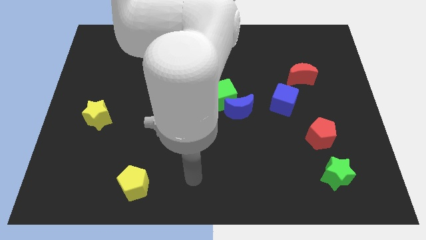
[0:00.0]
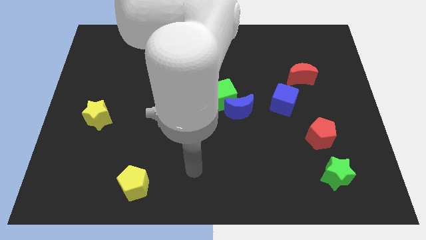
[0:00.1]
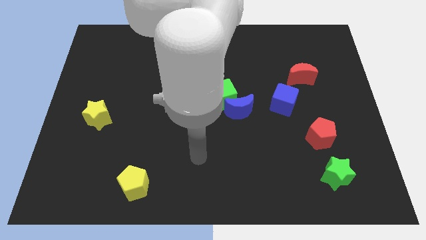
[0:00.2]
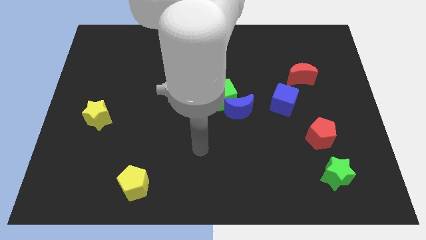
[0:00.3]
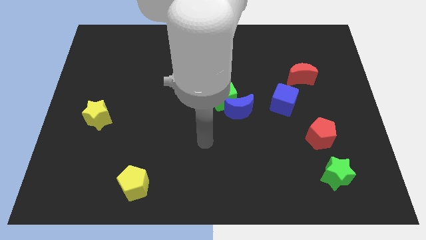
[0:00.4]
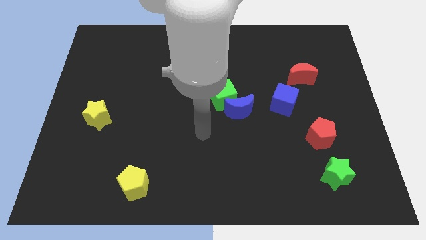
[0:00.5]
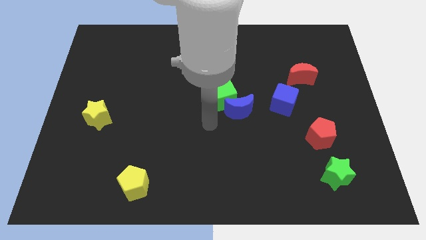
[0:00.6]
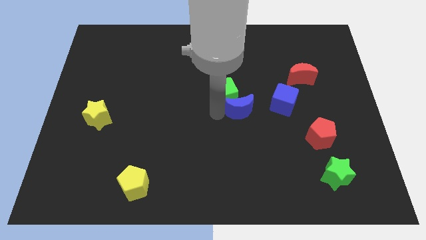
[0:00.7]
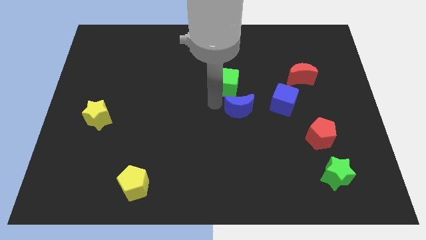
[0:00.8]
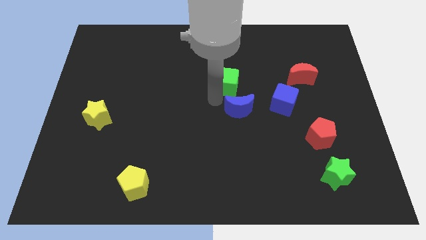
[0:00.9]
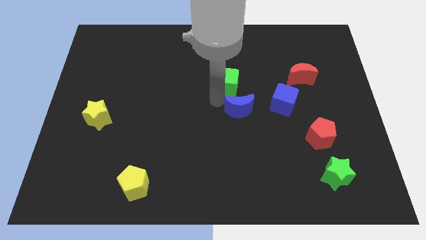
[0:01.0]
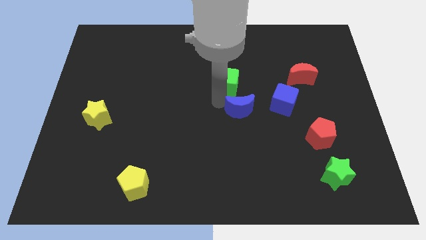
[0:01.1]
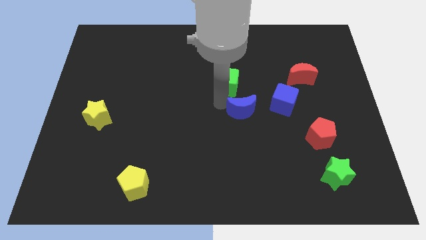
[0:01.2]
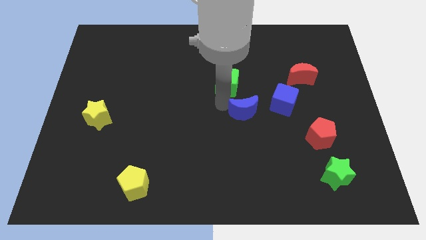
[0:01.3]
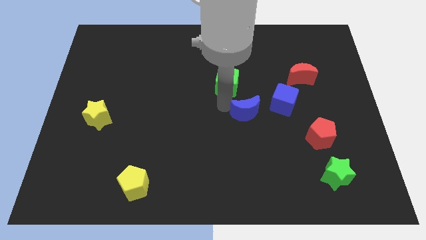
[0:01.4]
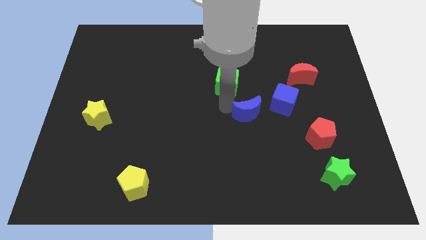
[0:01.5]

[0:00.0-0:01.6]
move the blue moon away from the green cube

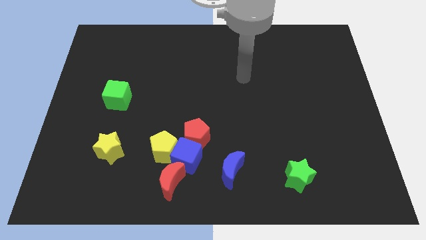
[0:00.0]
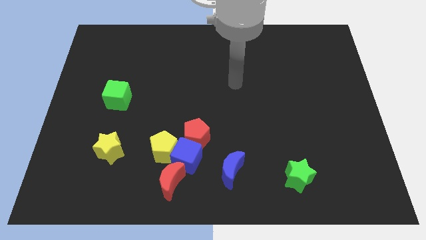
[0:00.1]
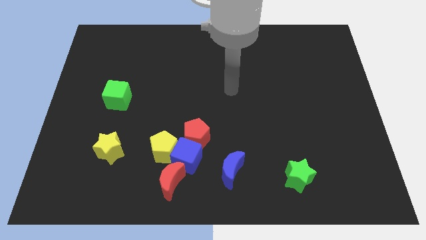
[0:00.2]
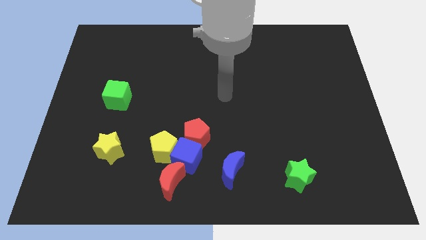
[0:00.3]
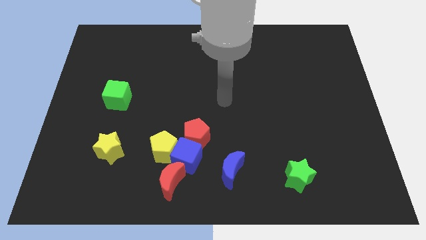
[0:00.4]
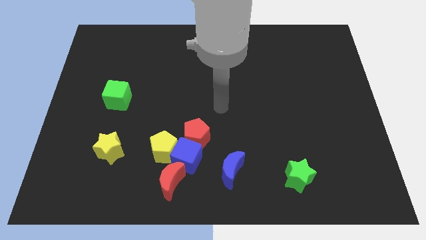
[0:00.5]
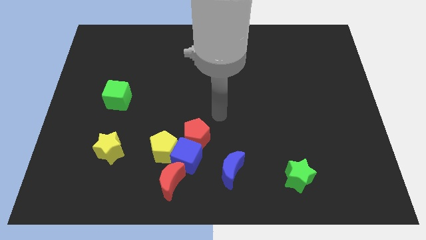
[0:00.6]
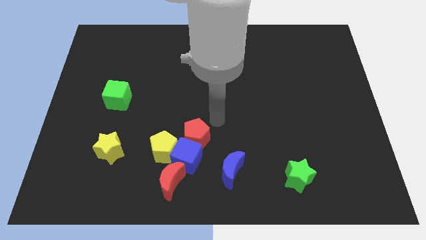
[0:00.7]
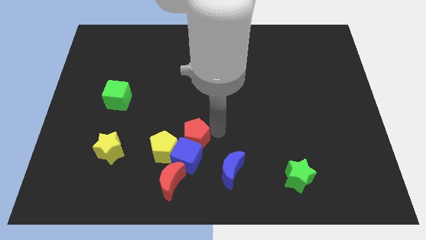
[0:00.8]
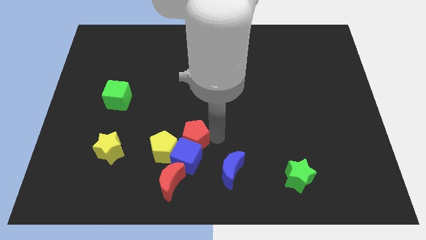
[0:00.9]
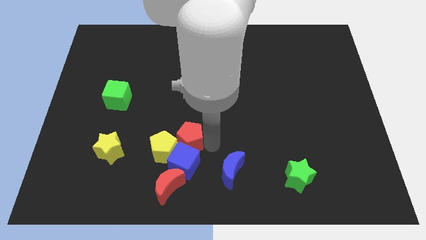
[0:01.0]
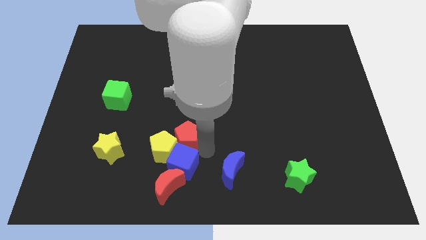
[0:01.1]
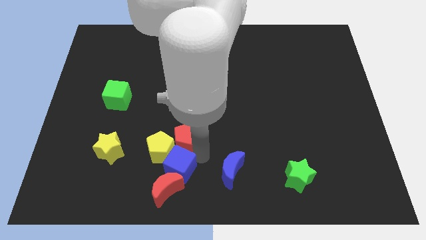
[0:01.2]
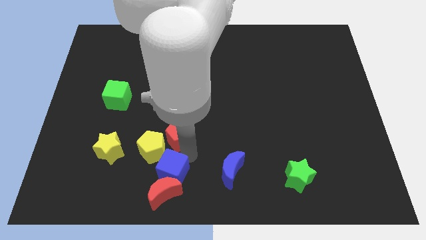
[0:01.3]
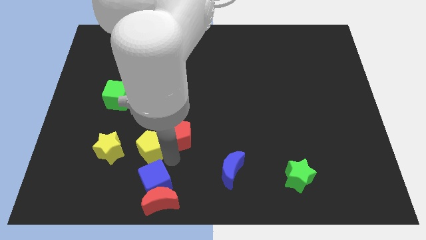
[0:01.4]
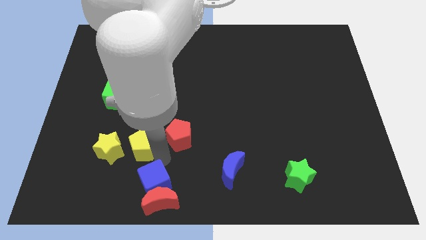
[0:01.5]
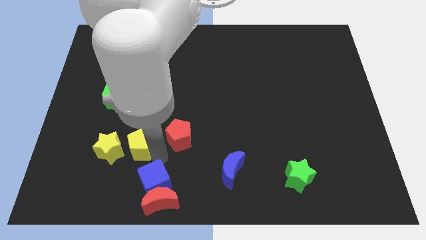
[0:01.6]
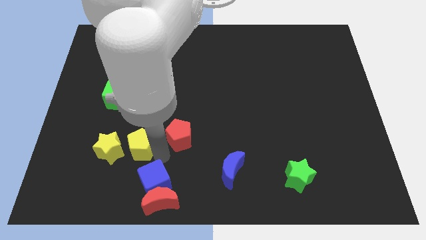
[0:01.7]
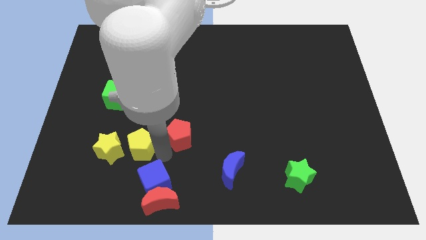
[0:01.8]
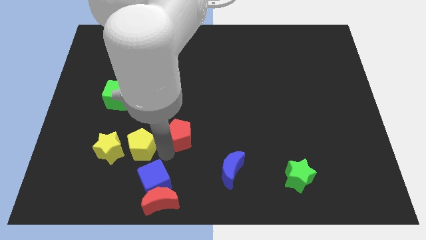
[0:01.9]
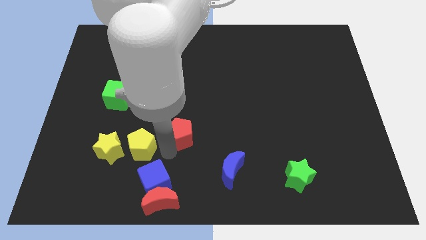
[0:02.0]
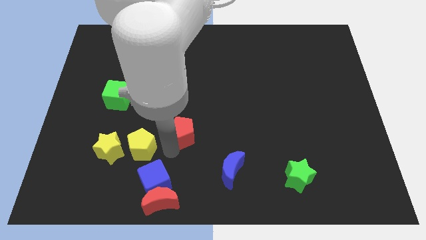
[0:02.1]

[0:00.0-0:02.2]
move the red pentagon away from the blue cube and yellow pentagon

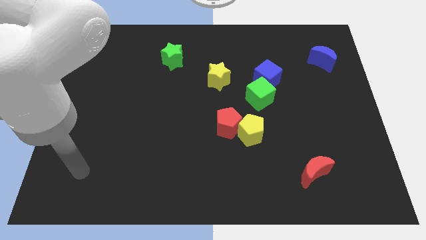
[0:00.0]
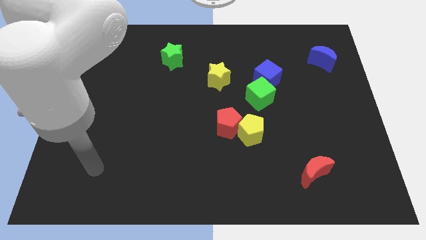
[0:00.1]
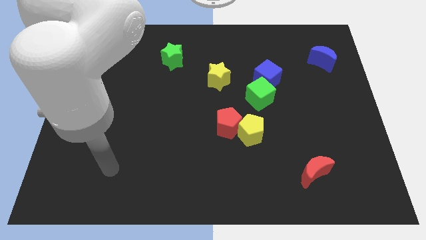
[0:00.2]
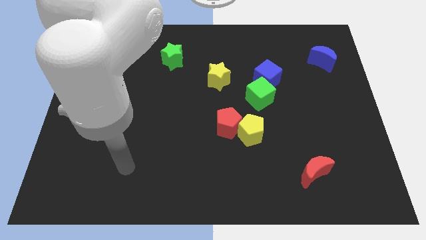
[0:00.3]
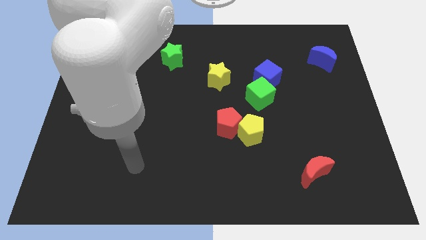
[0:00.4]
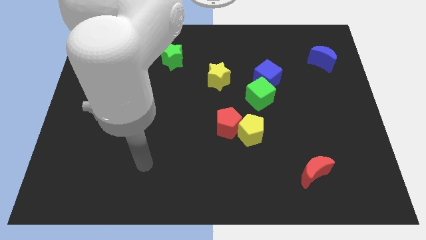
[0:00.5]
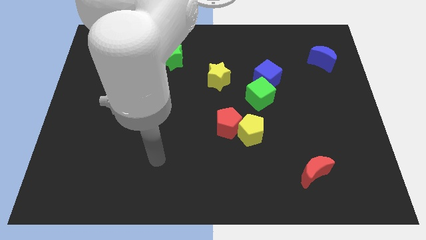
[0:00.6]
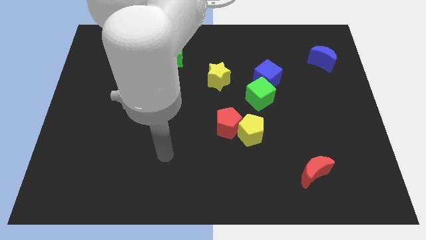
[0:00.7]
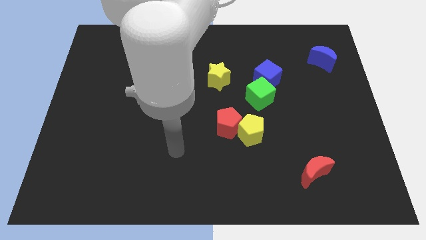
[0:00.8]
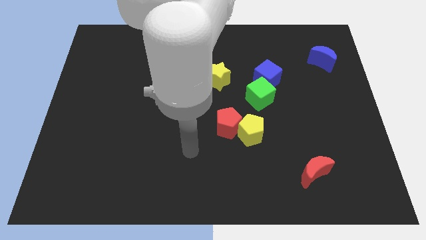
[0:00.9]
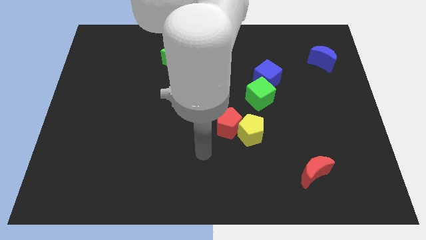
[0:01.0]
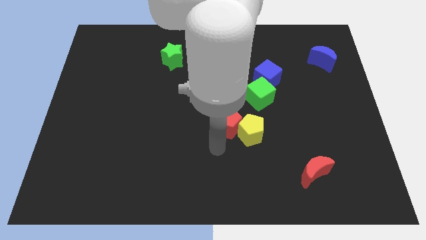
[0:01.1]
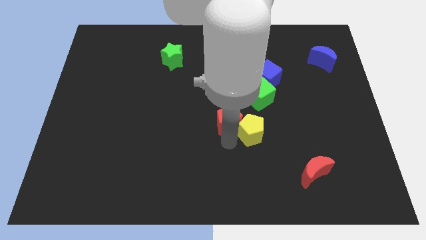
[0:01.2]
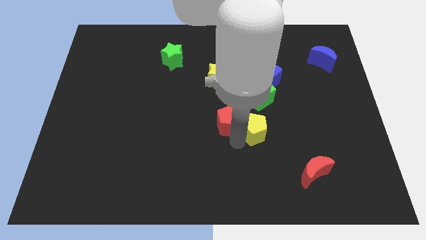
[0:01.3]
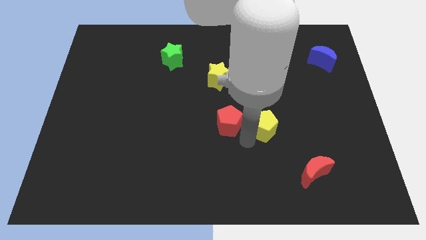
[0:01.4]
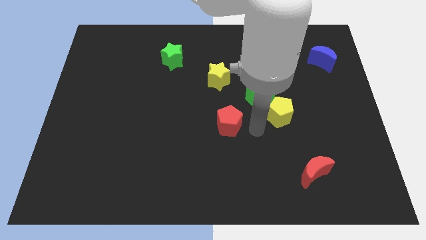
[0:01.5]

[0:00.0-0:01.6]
pull the red pentagon apart from the yellow pentagon

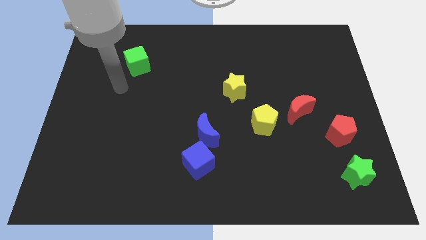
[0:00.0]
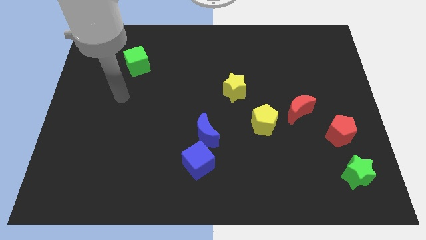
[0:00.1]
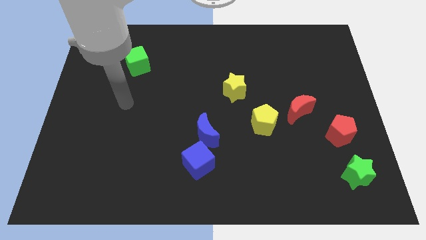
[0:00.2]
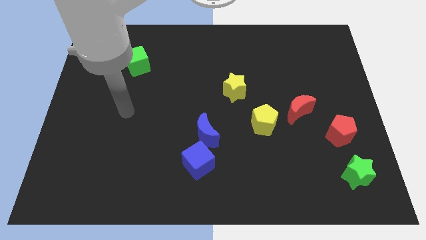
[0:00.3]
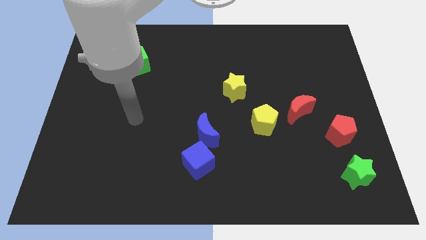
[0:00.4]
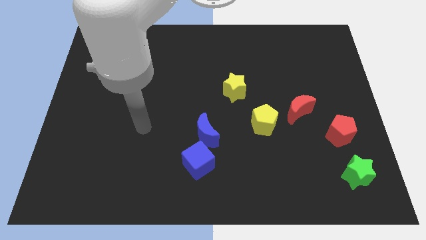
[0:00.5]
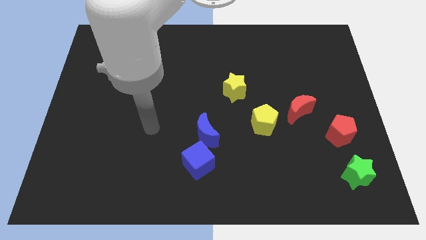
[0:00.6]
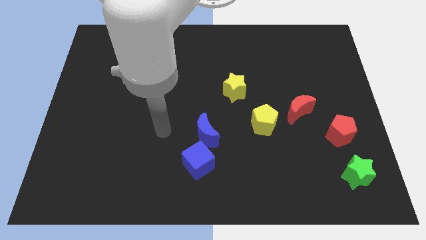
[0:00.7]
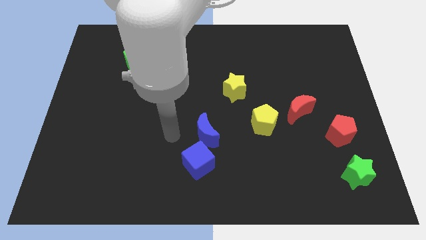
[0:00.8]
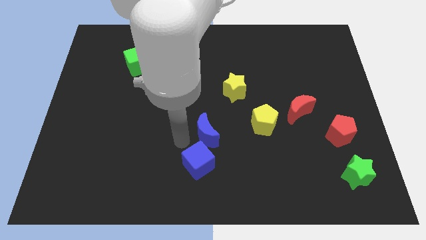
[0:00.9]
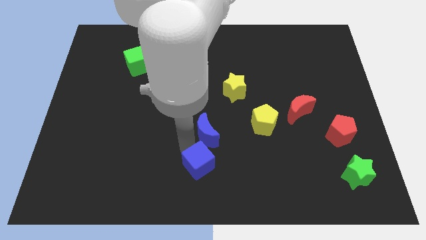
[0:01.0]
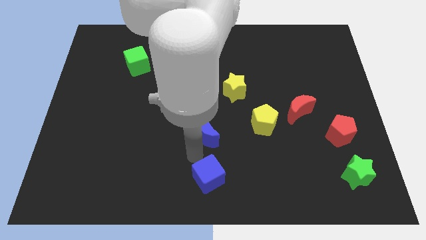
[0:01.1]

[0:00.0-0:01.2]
pull the blue moon apart from the blue cube

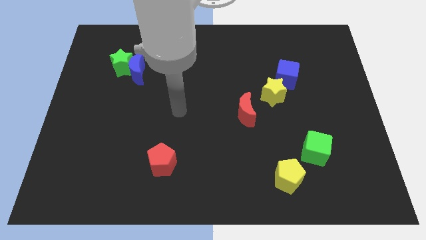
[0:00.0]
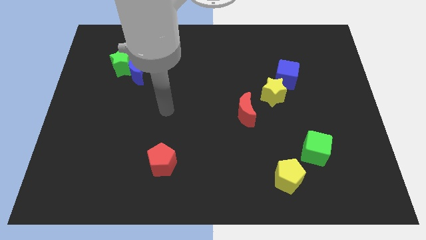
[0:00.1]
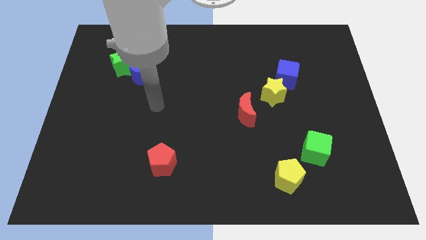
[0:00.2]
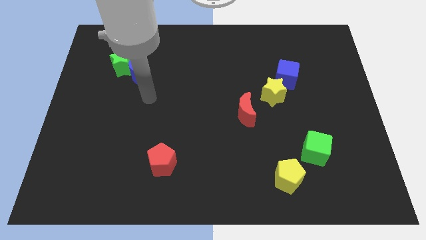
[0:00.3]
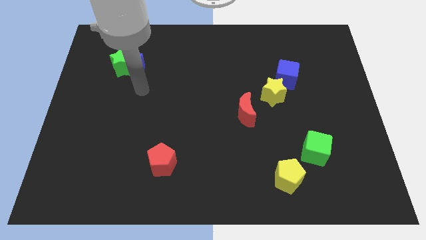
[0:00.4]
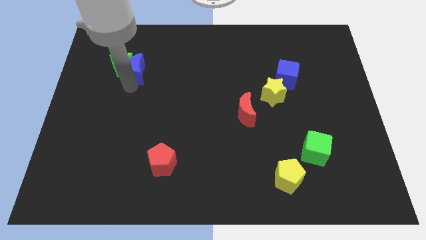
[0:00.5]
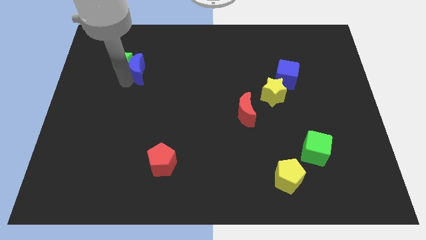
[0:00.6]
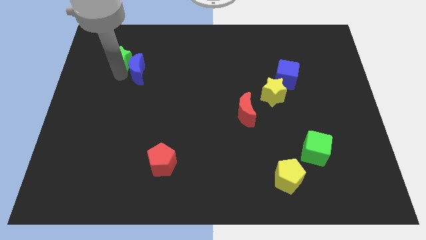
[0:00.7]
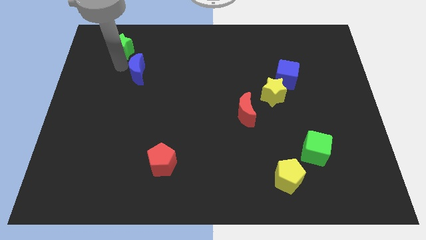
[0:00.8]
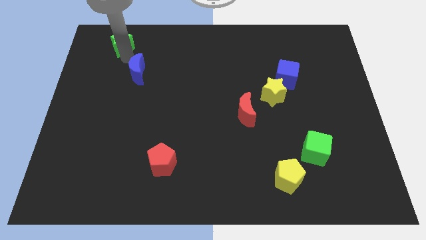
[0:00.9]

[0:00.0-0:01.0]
separate the blue moon from the green star

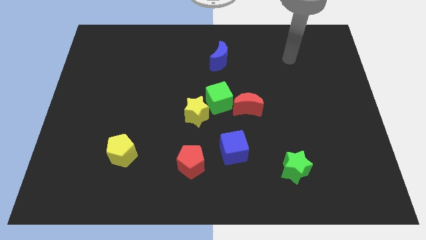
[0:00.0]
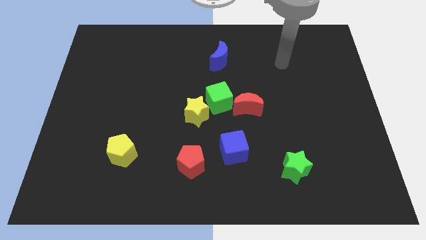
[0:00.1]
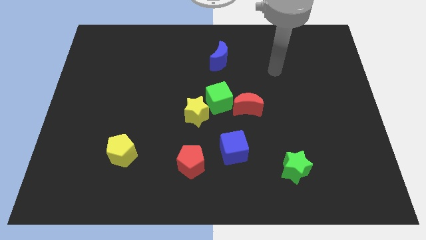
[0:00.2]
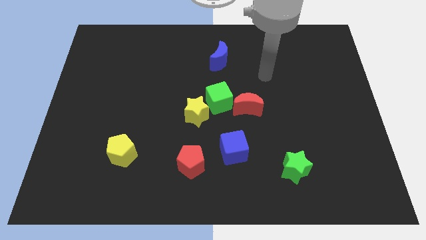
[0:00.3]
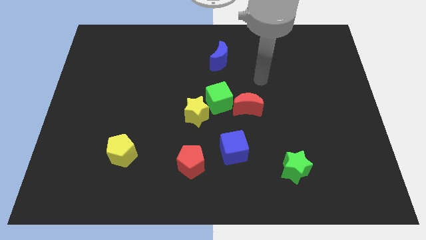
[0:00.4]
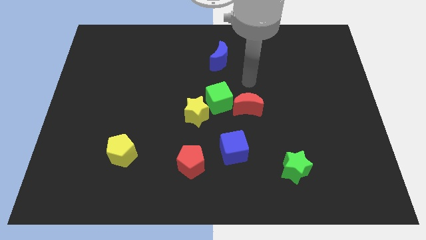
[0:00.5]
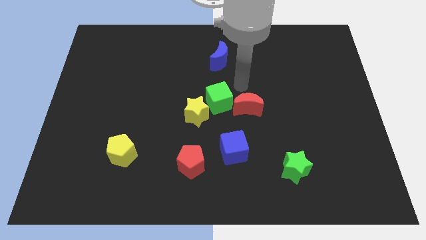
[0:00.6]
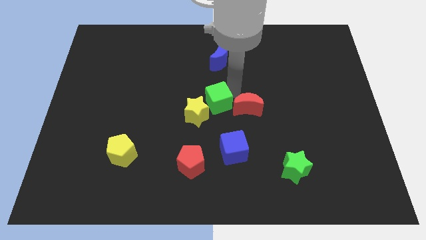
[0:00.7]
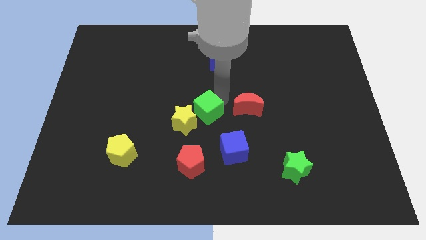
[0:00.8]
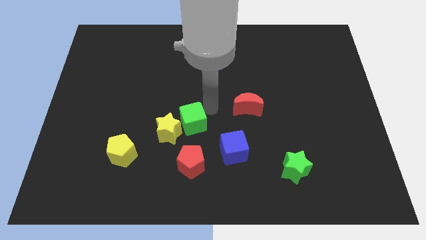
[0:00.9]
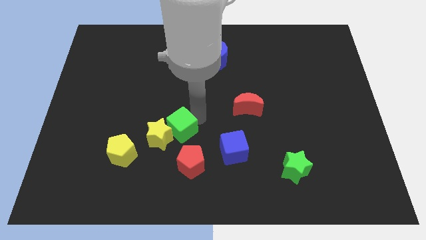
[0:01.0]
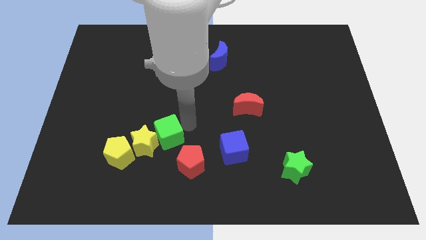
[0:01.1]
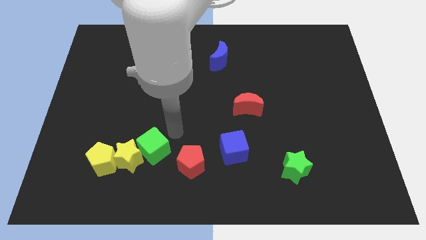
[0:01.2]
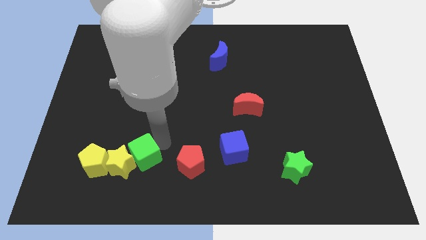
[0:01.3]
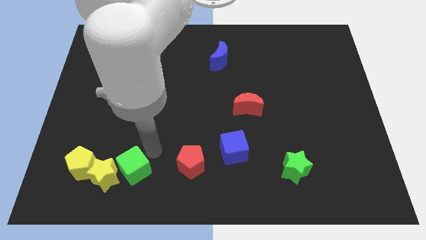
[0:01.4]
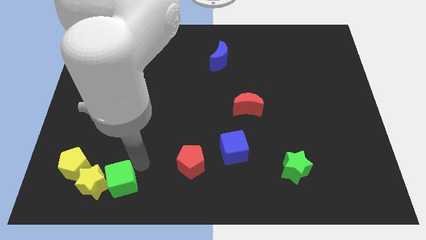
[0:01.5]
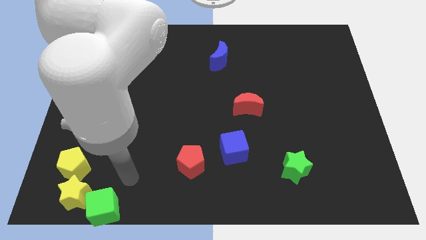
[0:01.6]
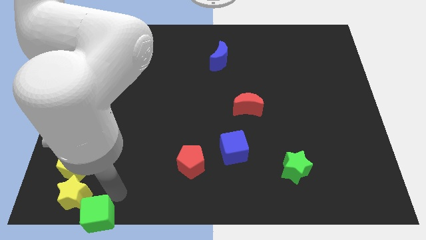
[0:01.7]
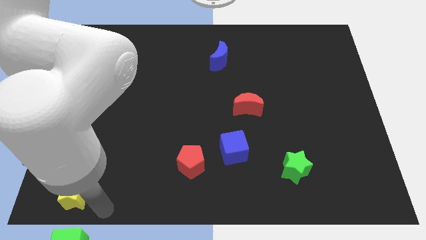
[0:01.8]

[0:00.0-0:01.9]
move the yellow star away from the green cube
